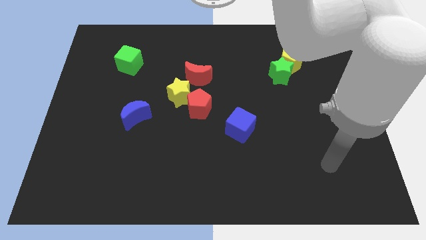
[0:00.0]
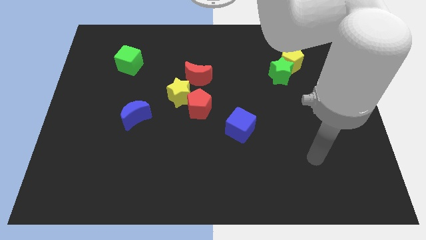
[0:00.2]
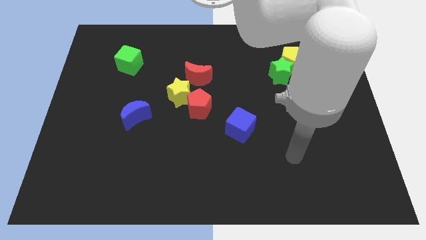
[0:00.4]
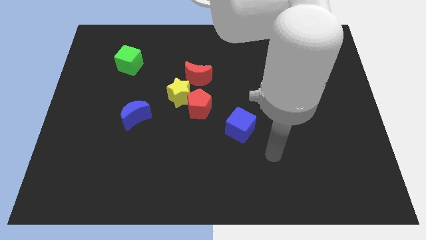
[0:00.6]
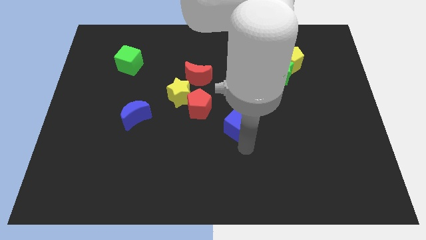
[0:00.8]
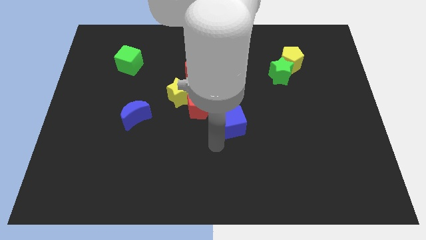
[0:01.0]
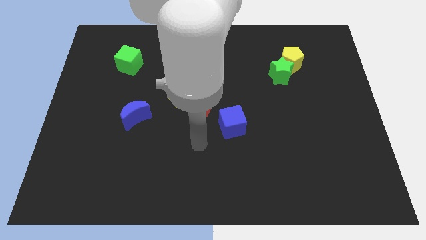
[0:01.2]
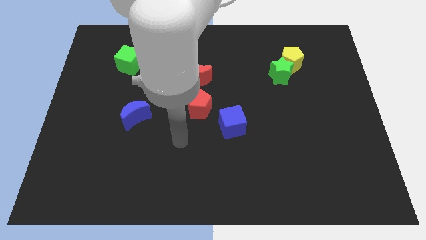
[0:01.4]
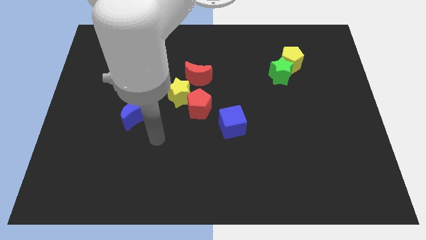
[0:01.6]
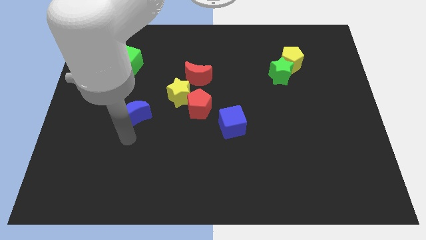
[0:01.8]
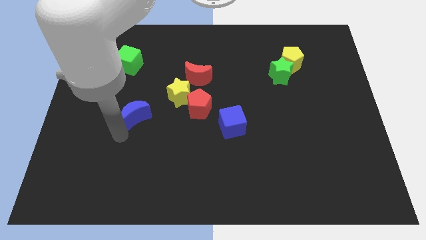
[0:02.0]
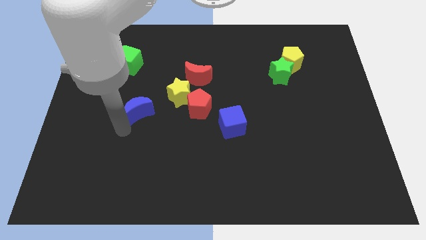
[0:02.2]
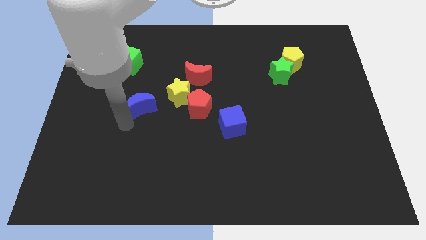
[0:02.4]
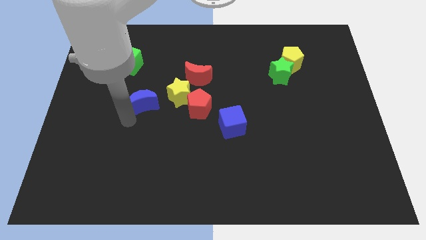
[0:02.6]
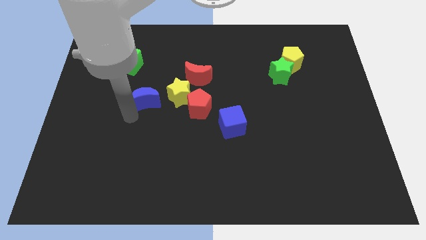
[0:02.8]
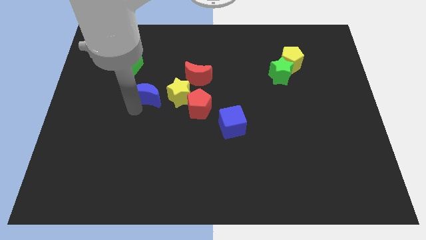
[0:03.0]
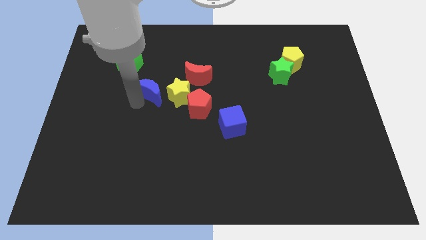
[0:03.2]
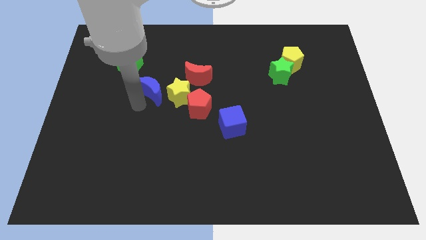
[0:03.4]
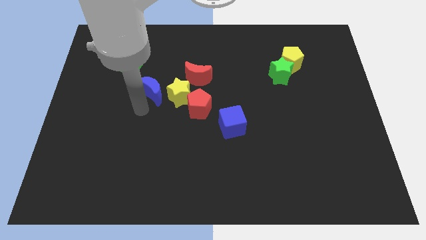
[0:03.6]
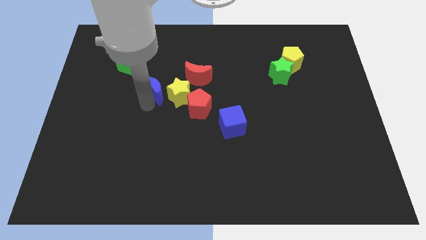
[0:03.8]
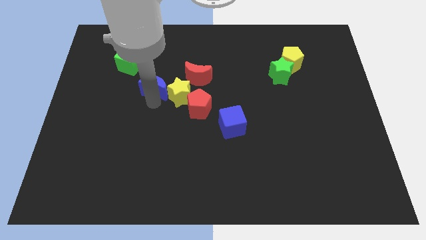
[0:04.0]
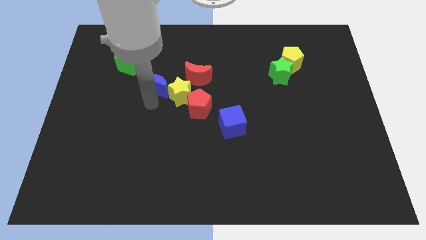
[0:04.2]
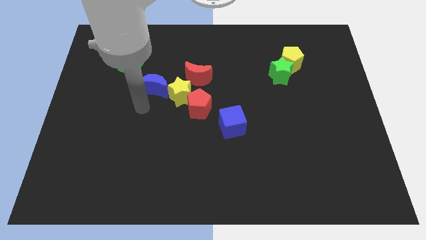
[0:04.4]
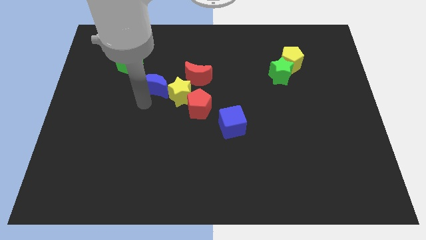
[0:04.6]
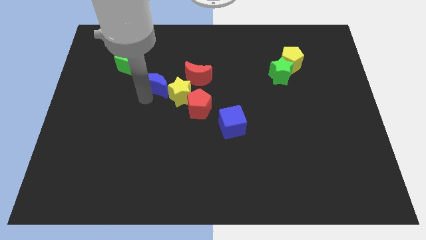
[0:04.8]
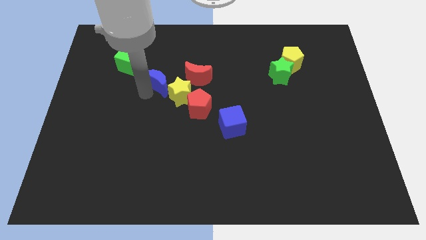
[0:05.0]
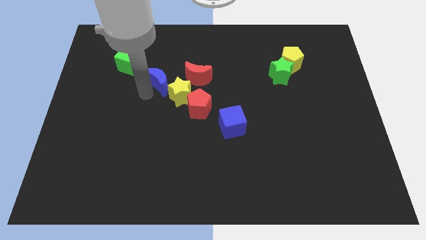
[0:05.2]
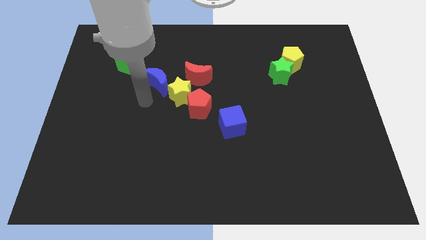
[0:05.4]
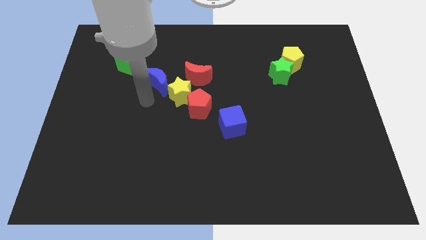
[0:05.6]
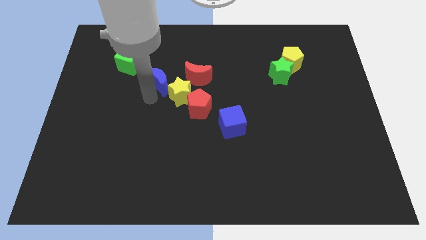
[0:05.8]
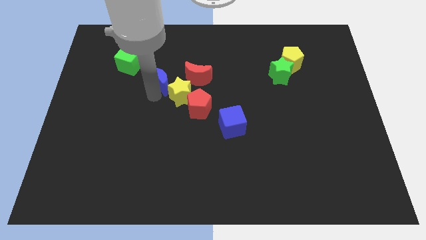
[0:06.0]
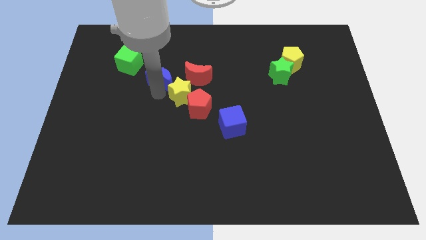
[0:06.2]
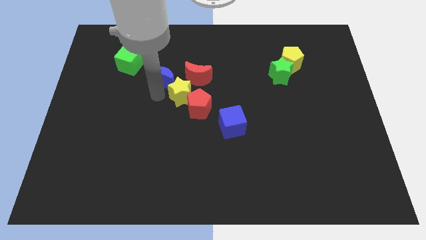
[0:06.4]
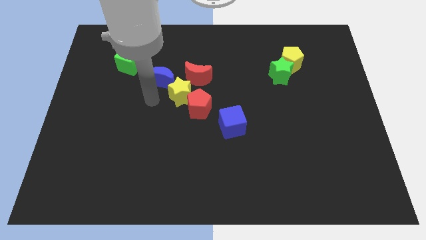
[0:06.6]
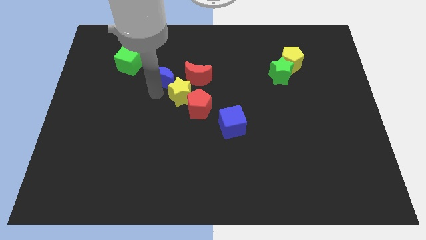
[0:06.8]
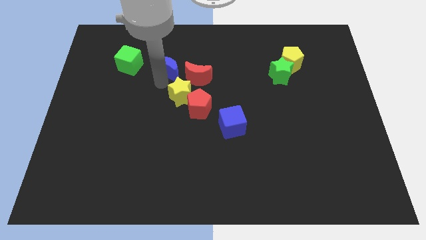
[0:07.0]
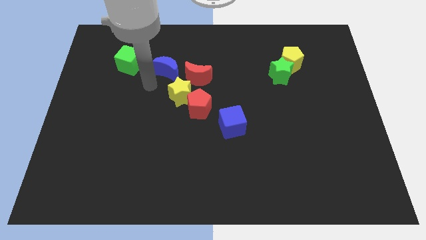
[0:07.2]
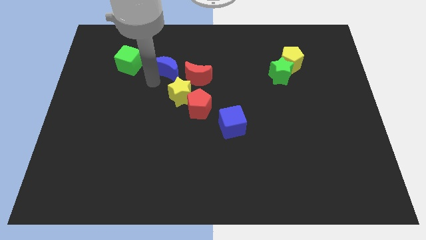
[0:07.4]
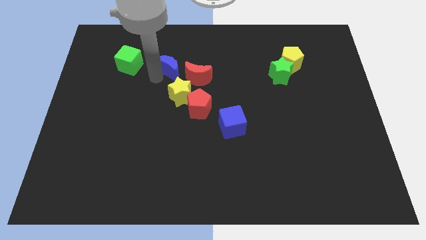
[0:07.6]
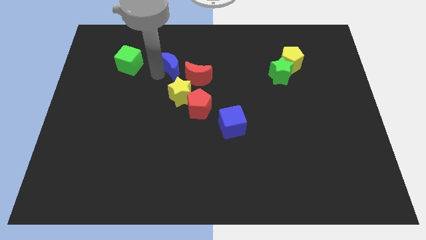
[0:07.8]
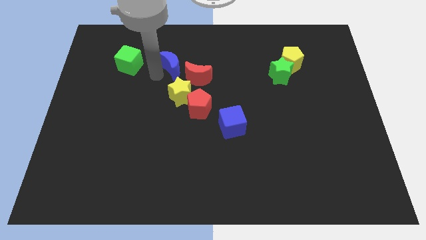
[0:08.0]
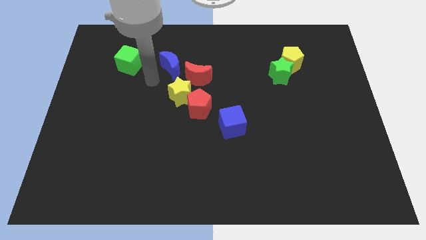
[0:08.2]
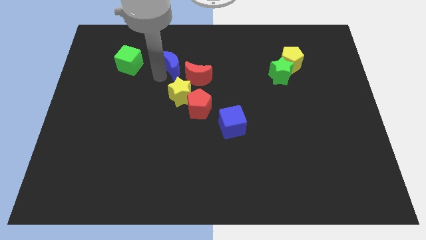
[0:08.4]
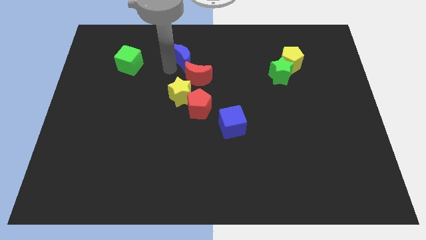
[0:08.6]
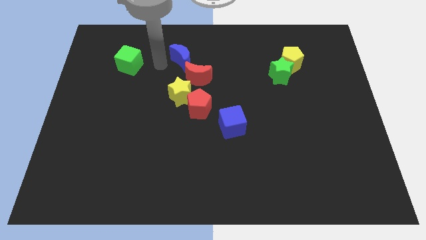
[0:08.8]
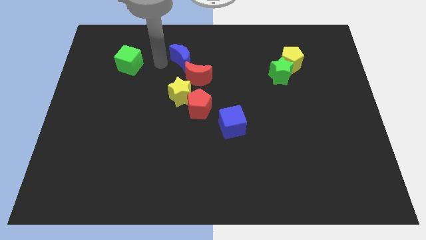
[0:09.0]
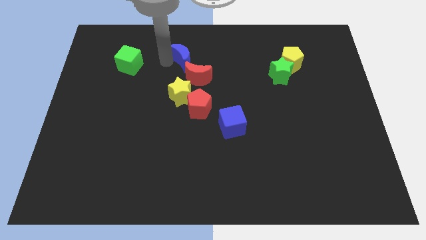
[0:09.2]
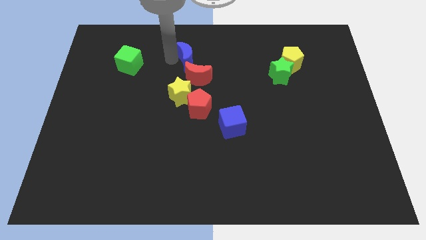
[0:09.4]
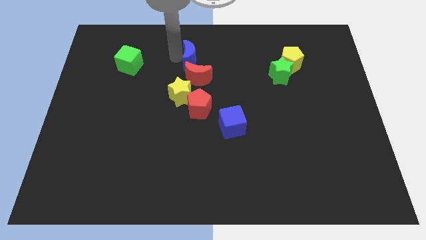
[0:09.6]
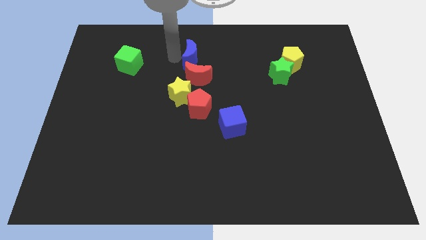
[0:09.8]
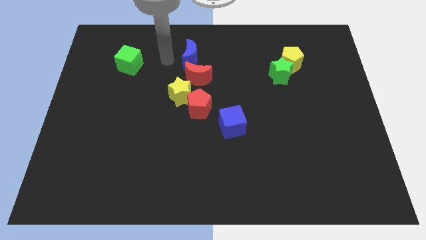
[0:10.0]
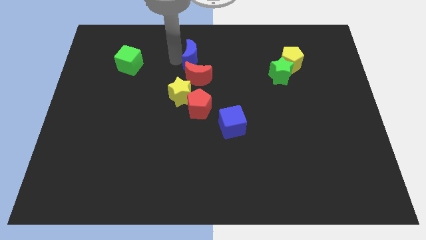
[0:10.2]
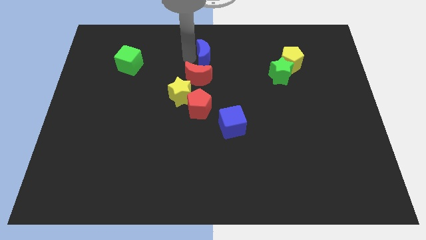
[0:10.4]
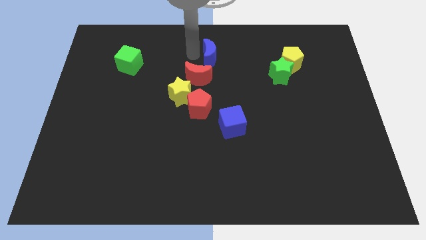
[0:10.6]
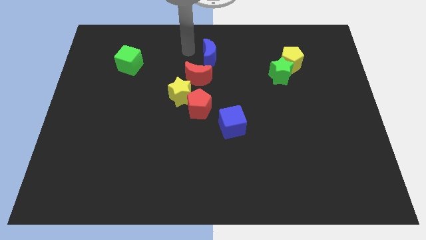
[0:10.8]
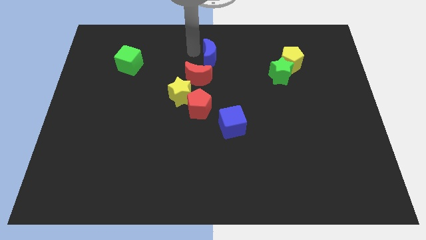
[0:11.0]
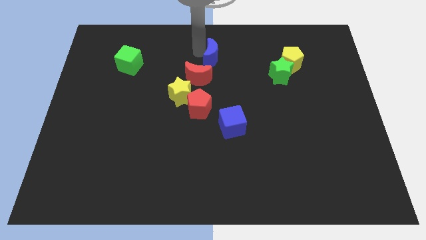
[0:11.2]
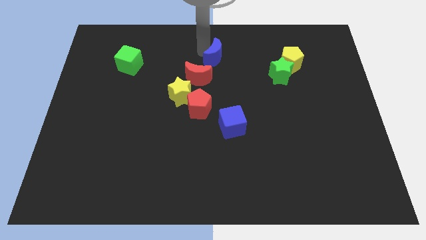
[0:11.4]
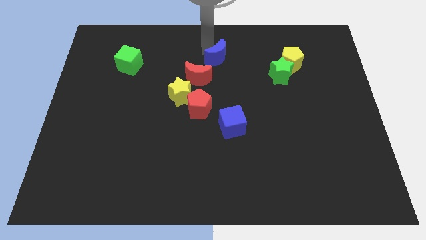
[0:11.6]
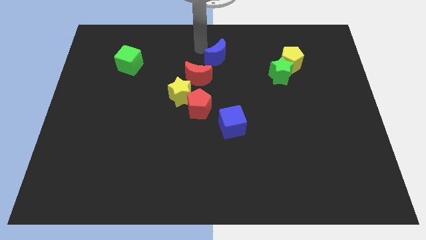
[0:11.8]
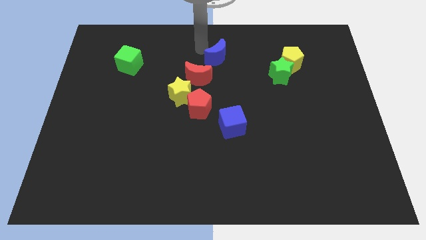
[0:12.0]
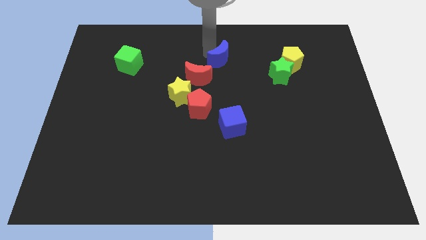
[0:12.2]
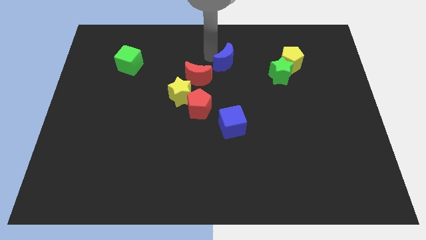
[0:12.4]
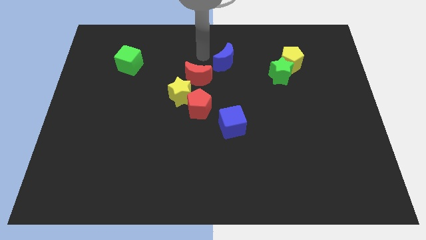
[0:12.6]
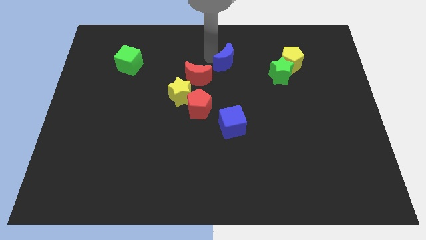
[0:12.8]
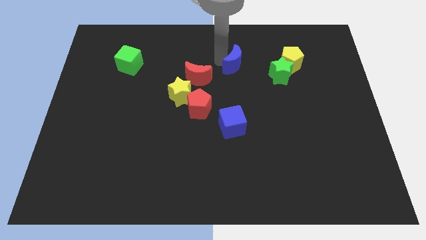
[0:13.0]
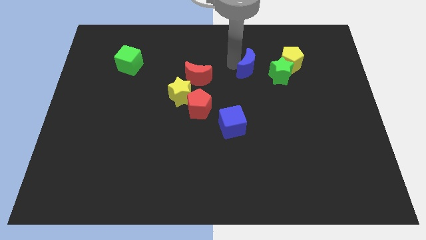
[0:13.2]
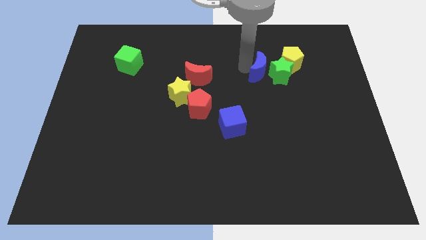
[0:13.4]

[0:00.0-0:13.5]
put the blue moon to the green star
